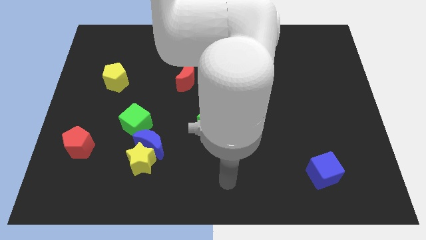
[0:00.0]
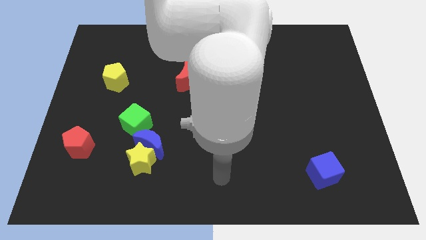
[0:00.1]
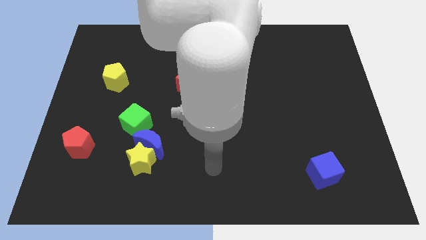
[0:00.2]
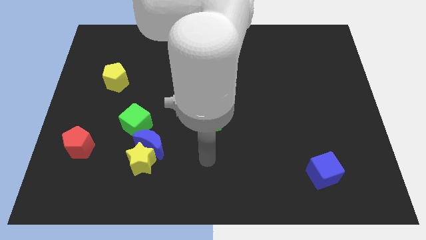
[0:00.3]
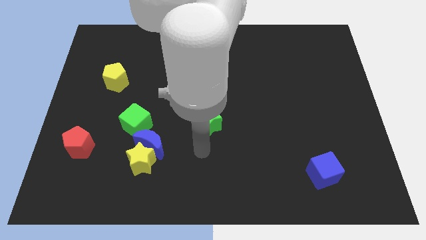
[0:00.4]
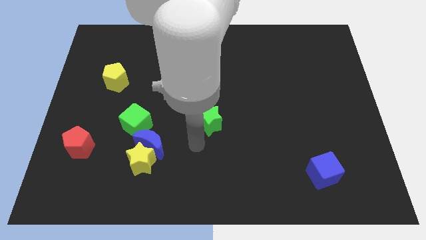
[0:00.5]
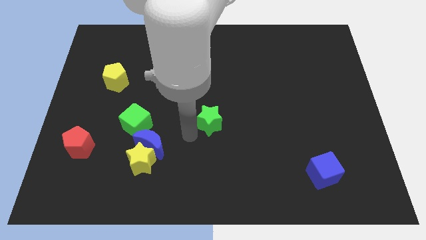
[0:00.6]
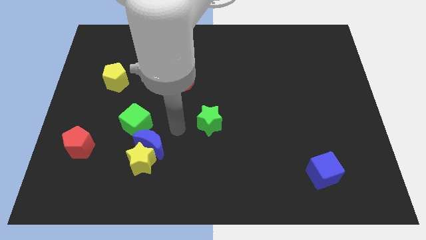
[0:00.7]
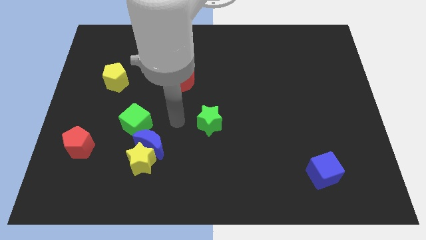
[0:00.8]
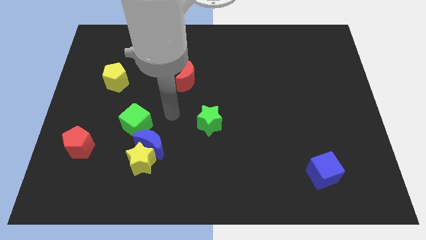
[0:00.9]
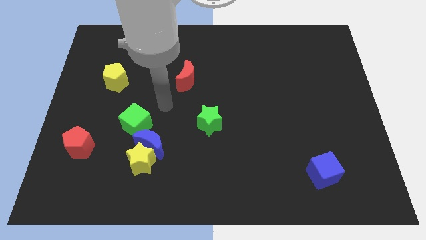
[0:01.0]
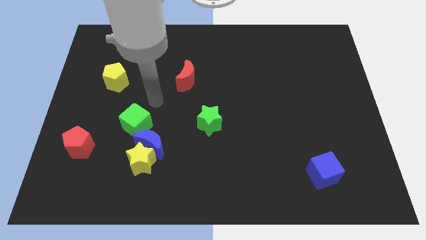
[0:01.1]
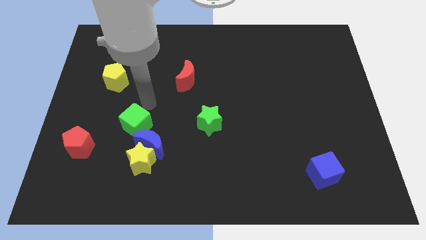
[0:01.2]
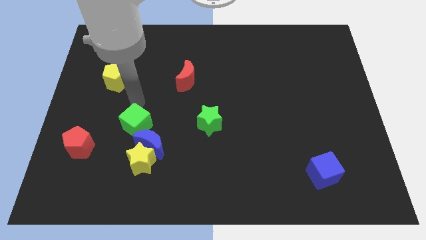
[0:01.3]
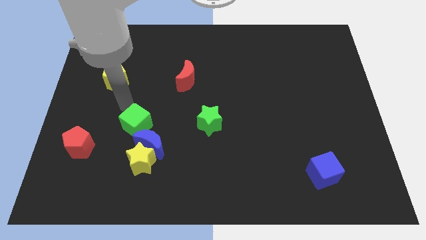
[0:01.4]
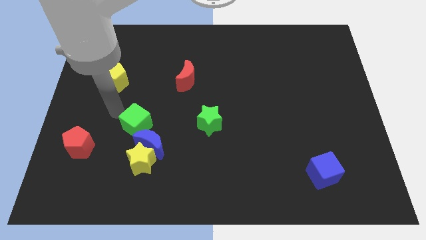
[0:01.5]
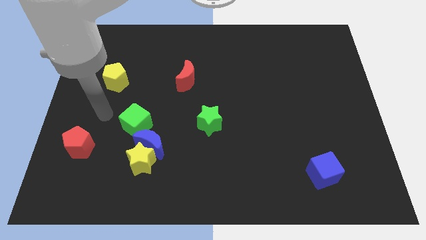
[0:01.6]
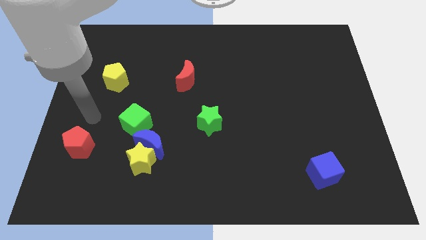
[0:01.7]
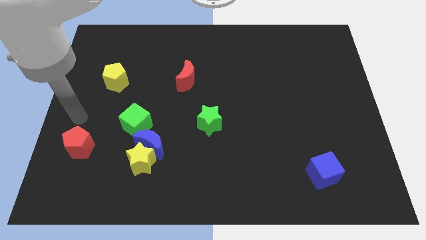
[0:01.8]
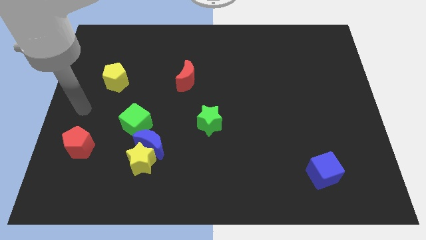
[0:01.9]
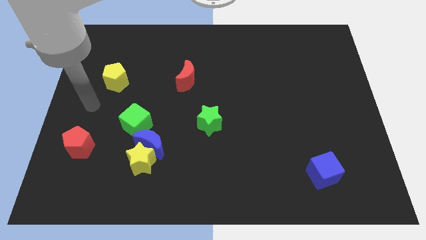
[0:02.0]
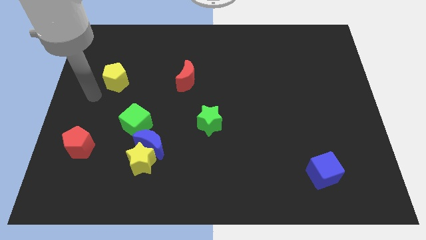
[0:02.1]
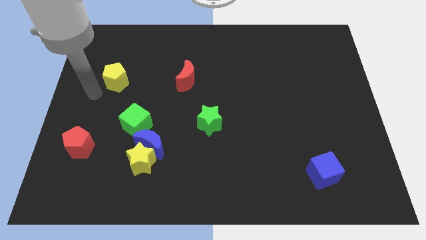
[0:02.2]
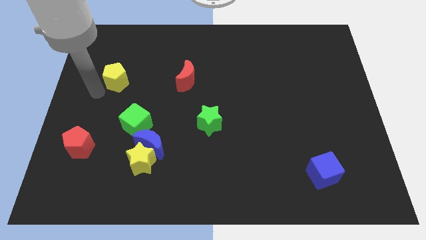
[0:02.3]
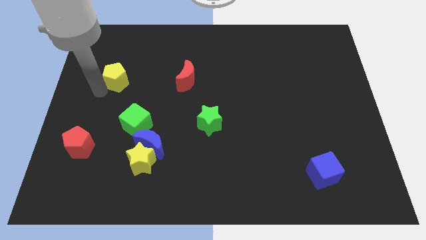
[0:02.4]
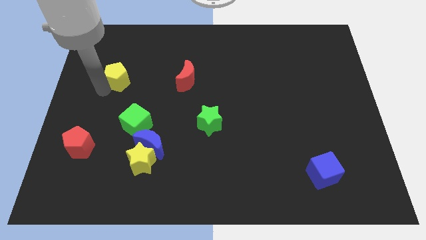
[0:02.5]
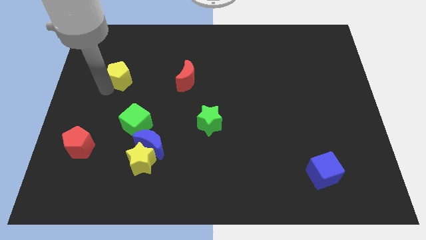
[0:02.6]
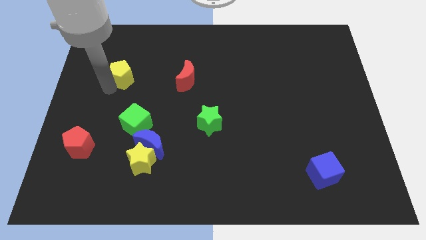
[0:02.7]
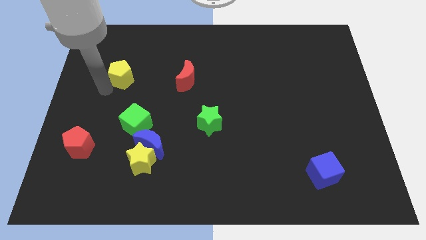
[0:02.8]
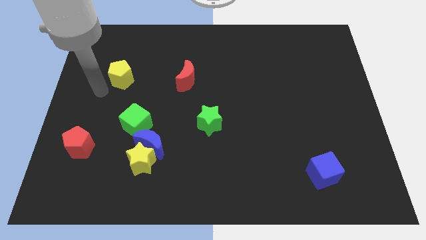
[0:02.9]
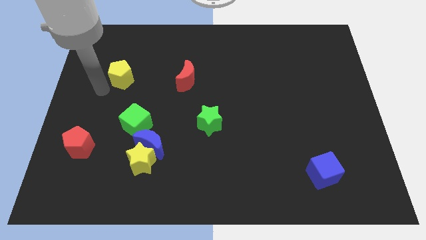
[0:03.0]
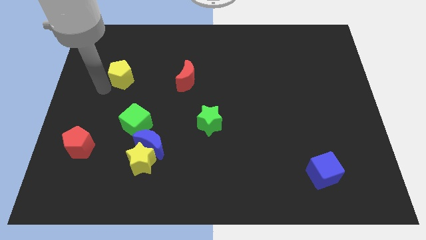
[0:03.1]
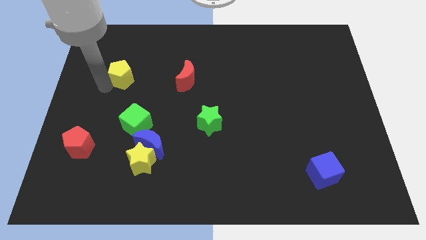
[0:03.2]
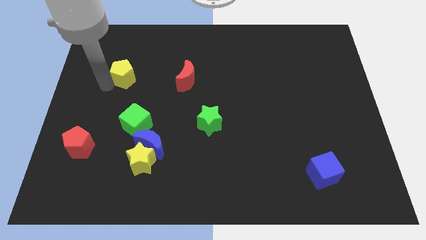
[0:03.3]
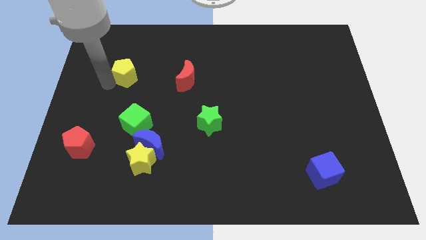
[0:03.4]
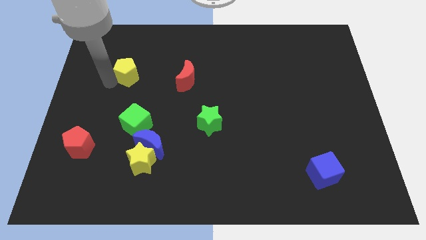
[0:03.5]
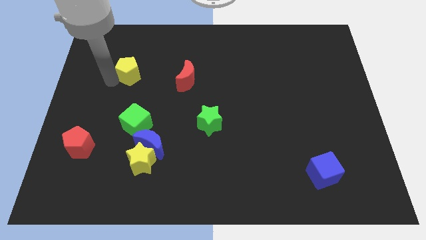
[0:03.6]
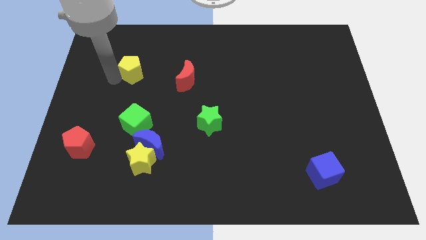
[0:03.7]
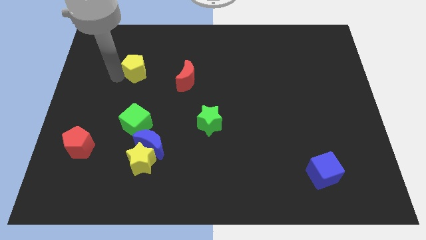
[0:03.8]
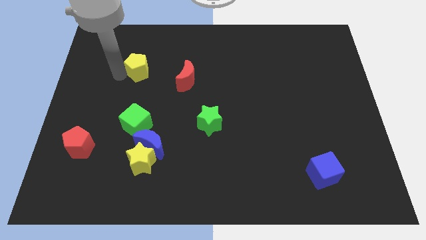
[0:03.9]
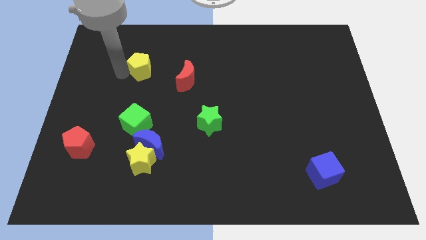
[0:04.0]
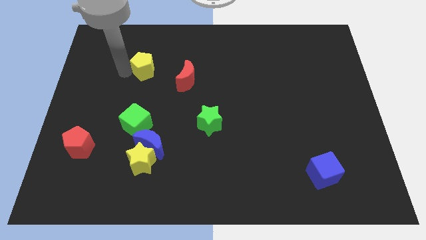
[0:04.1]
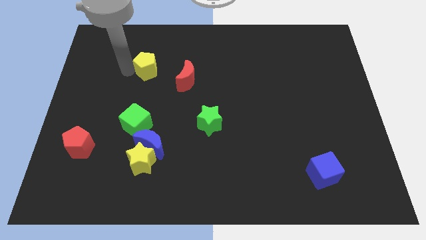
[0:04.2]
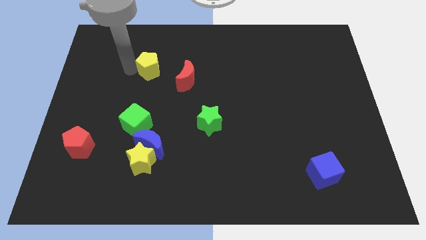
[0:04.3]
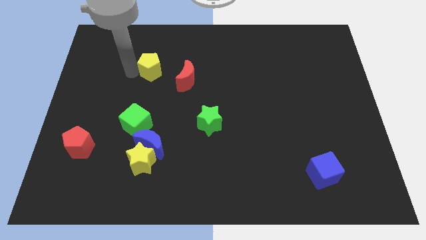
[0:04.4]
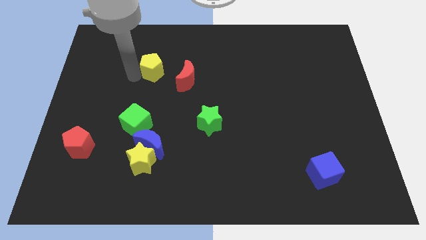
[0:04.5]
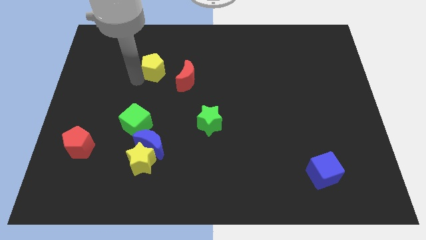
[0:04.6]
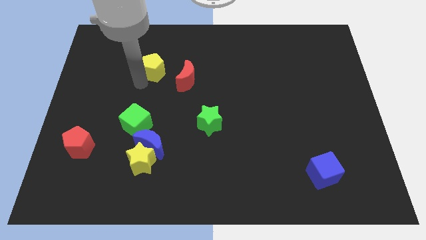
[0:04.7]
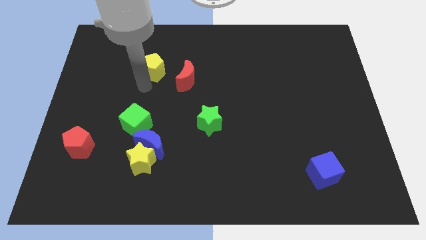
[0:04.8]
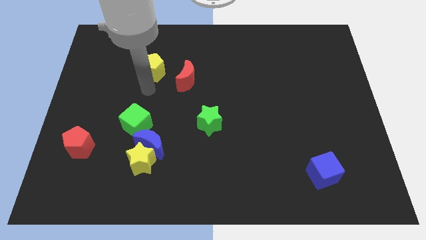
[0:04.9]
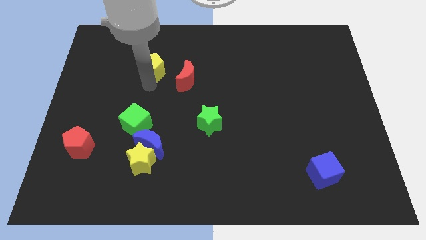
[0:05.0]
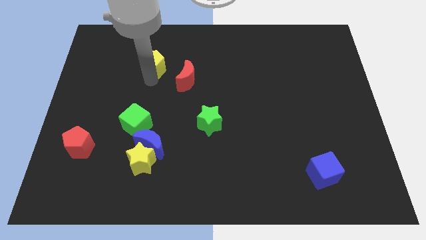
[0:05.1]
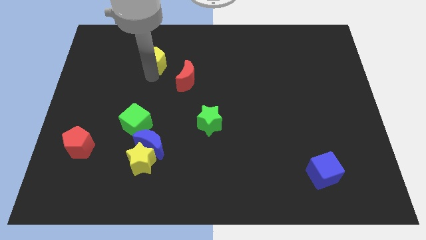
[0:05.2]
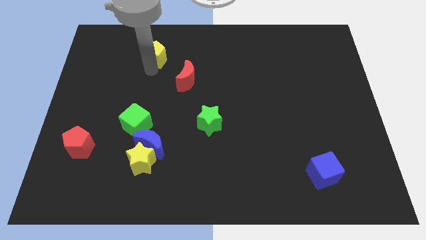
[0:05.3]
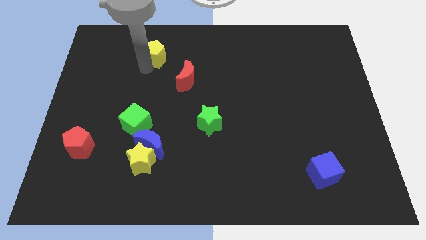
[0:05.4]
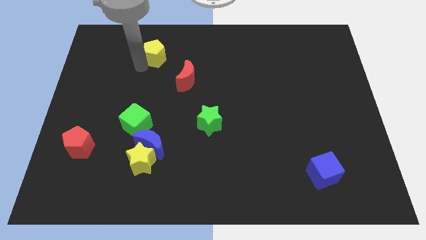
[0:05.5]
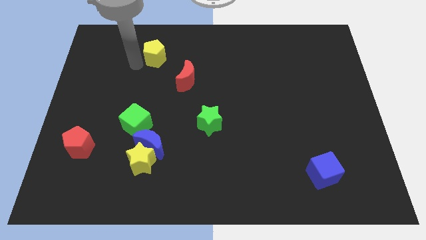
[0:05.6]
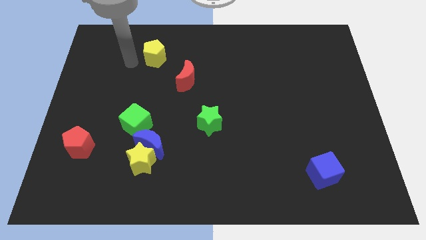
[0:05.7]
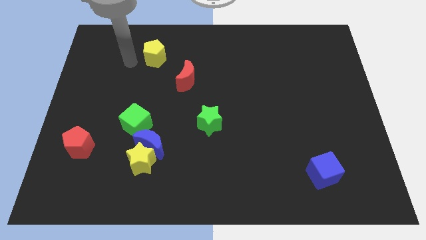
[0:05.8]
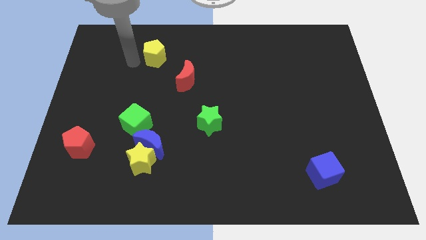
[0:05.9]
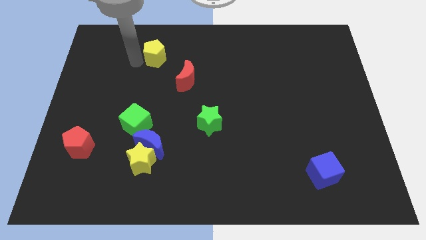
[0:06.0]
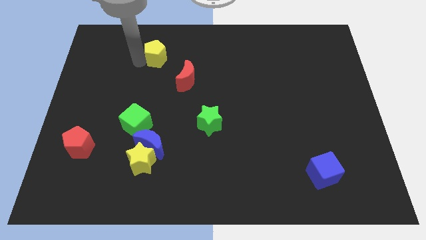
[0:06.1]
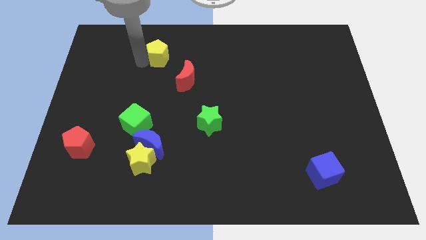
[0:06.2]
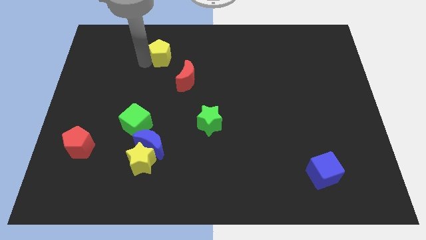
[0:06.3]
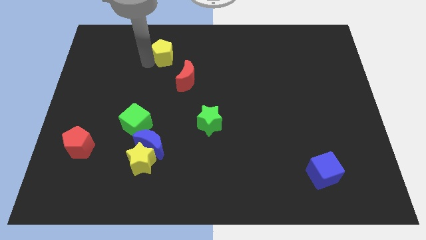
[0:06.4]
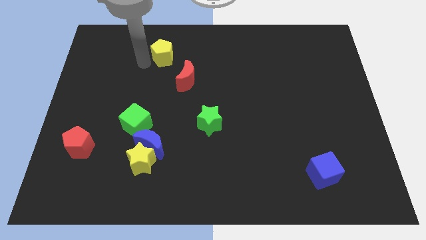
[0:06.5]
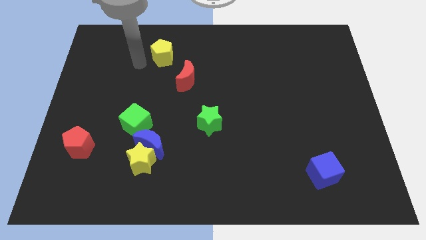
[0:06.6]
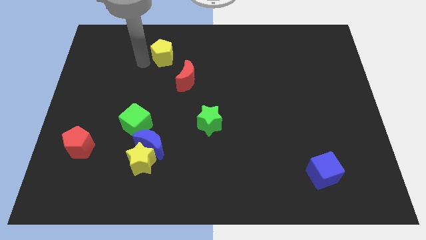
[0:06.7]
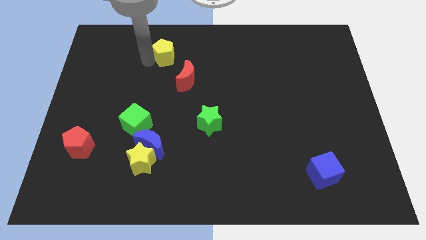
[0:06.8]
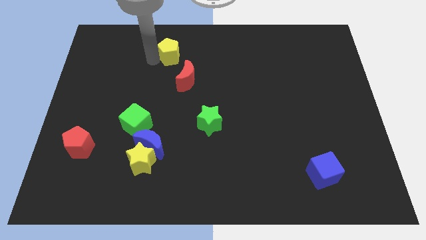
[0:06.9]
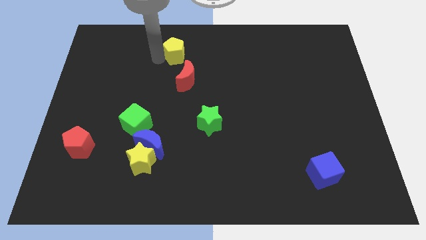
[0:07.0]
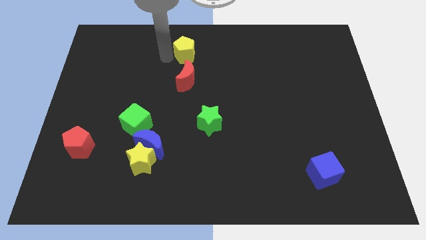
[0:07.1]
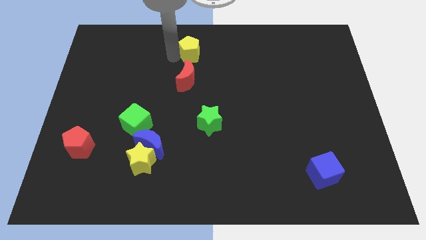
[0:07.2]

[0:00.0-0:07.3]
put the yellow pentagon to the top
